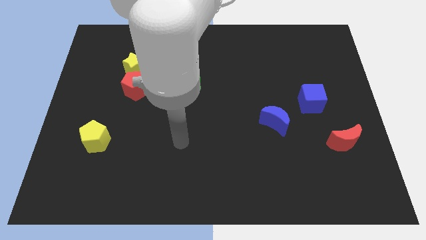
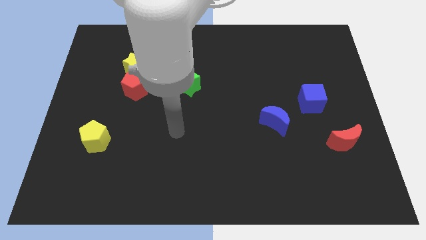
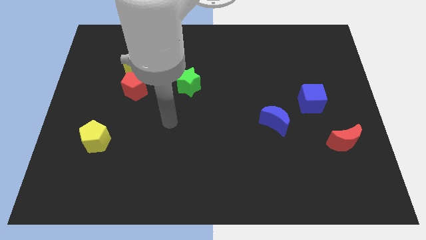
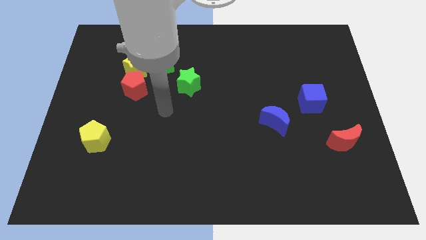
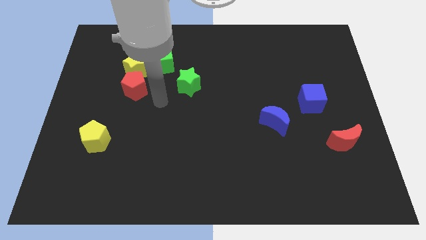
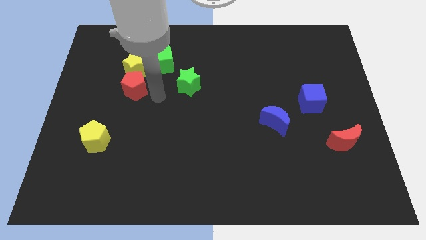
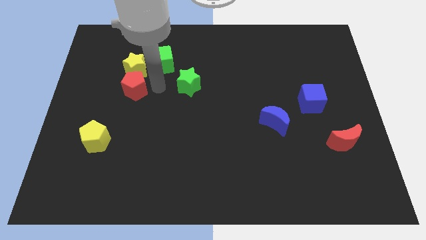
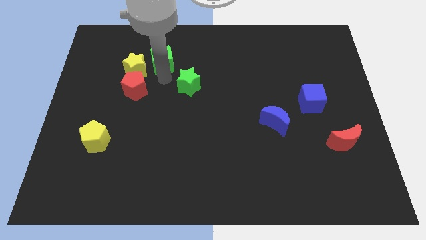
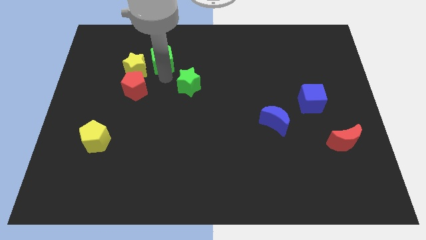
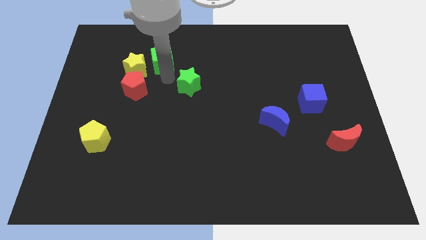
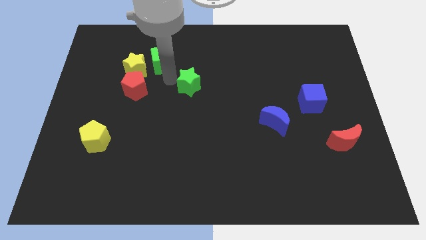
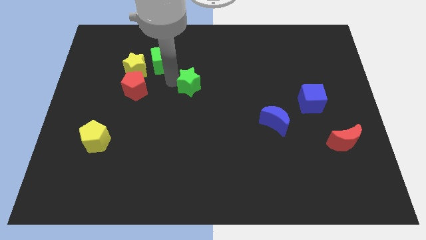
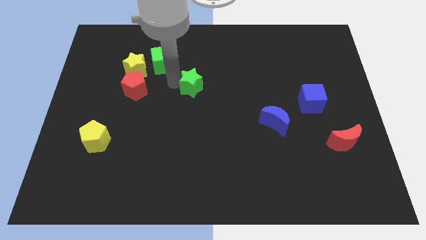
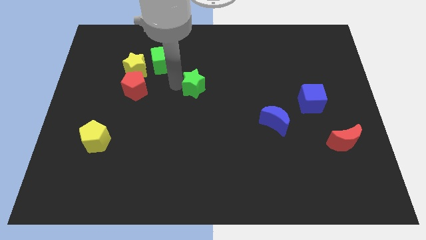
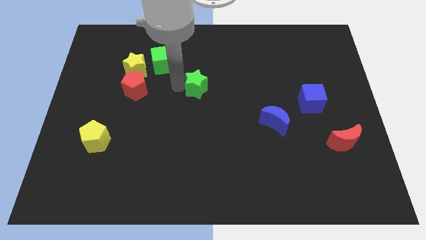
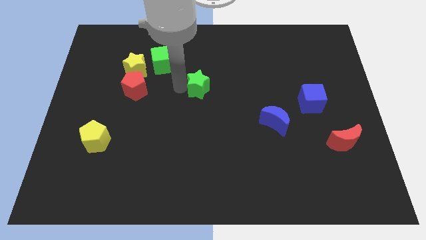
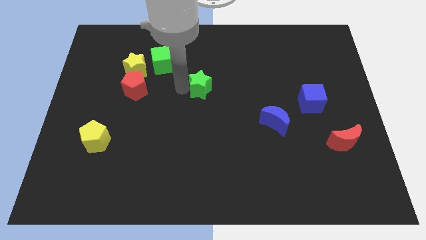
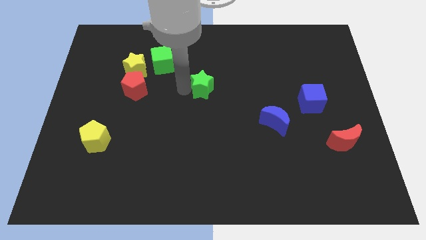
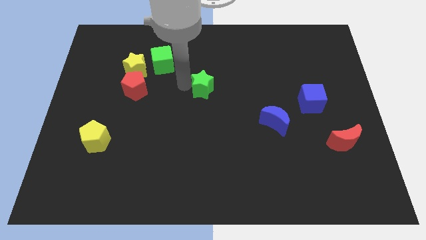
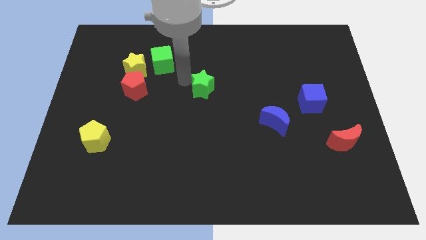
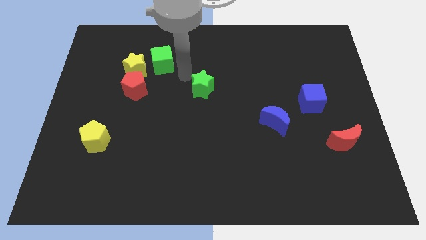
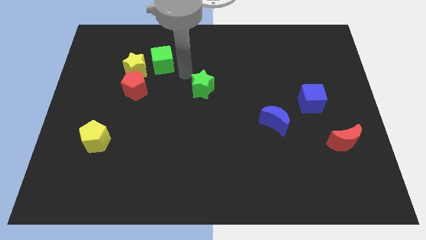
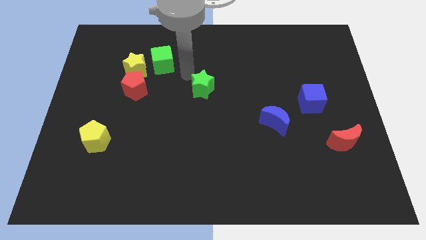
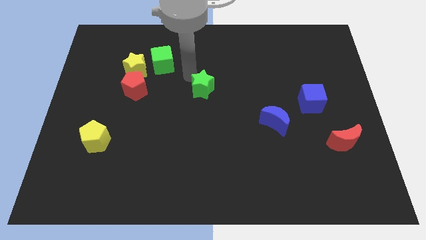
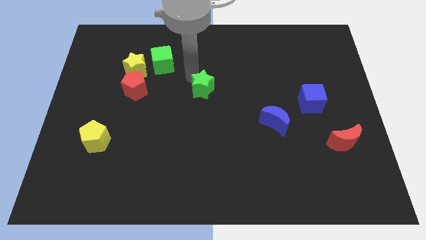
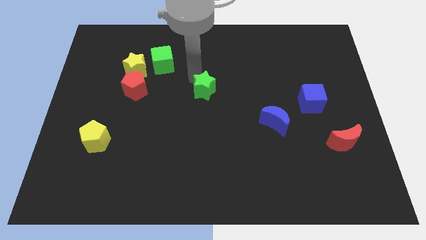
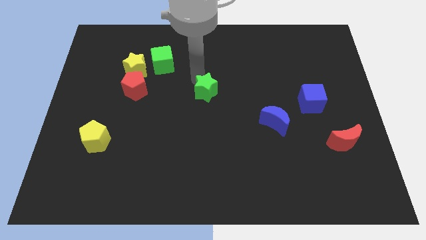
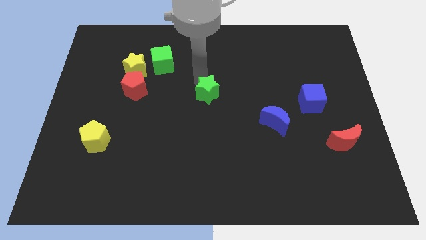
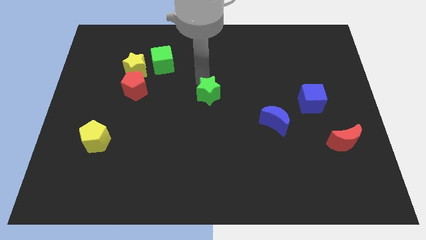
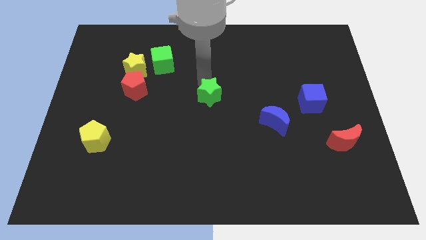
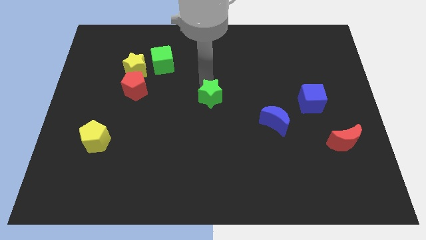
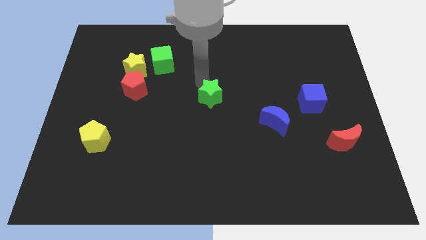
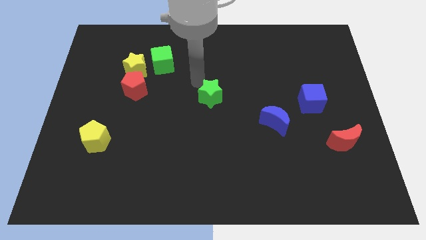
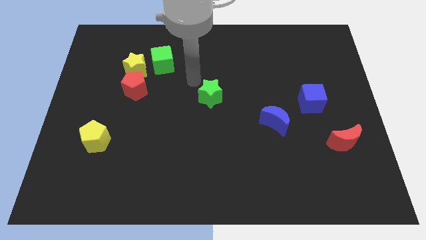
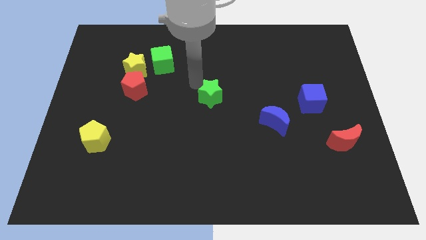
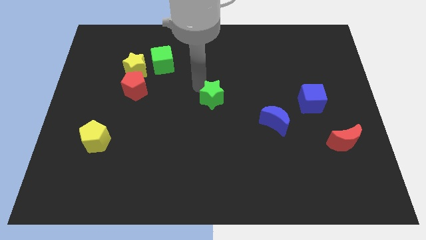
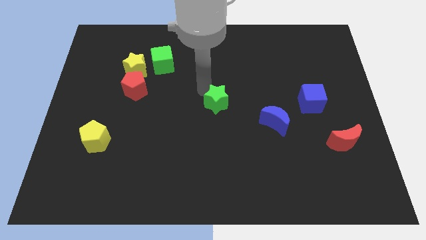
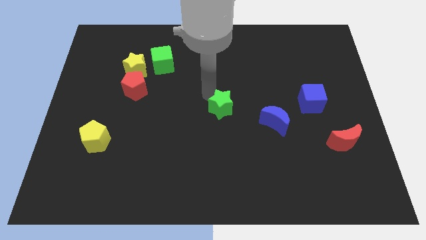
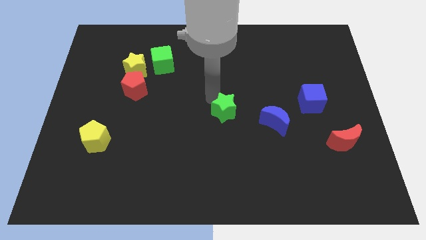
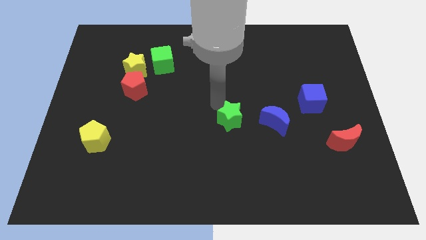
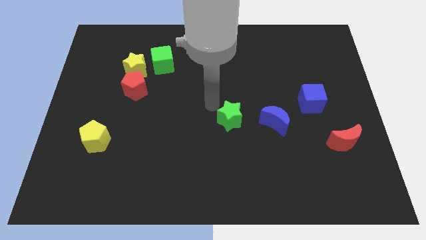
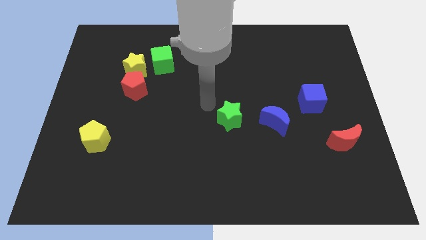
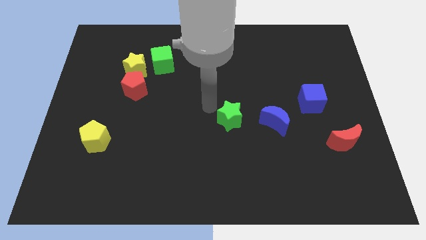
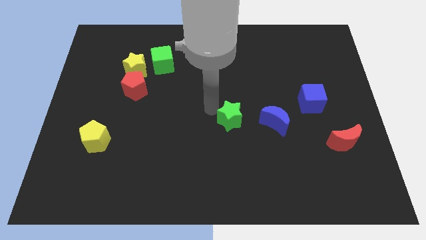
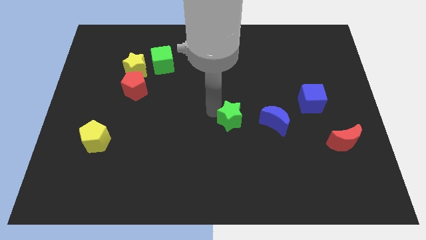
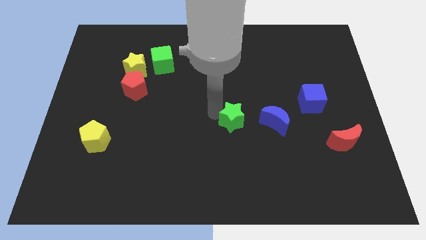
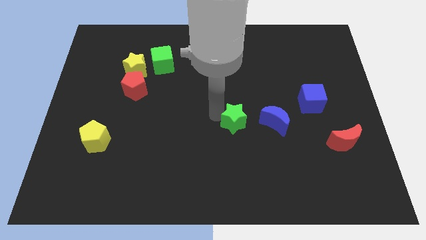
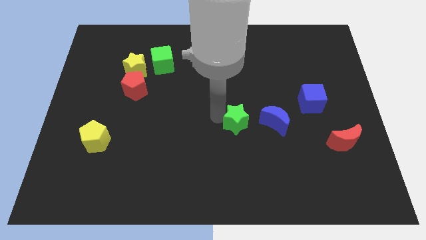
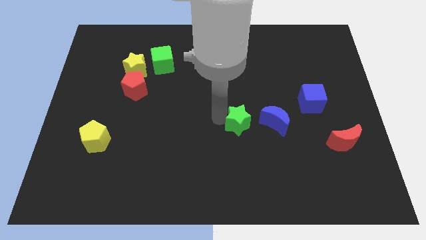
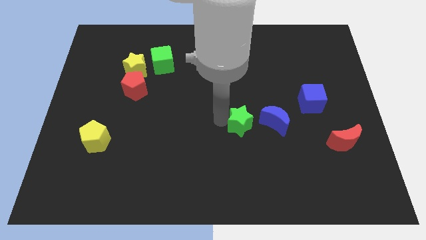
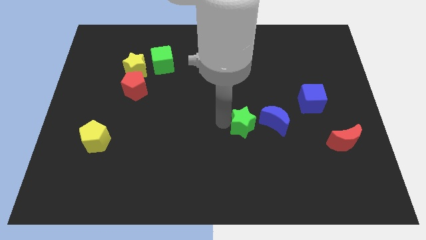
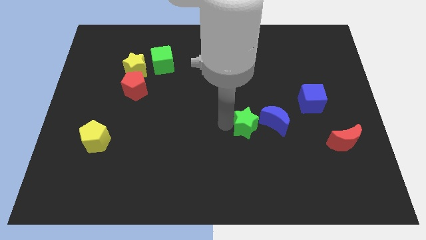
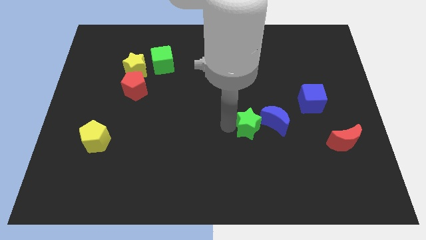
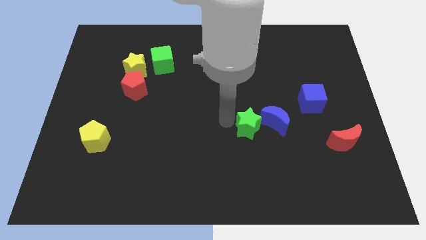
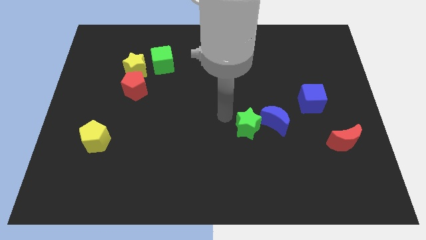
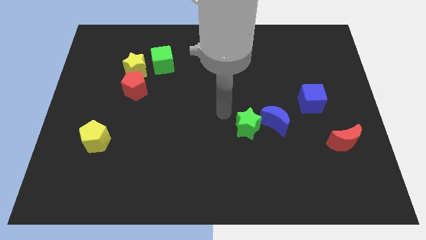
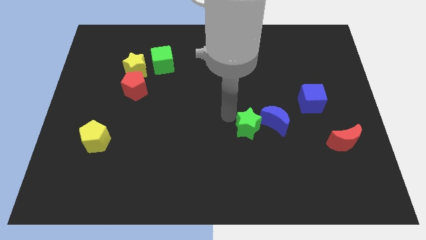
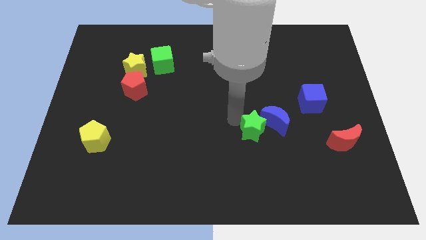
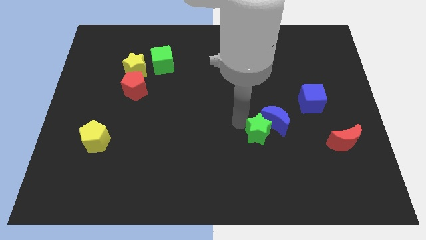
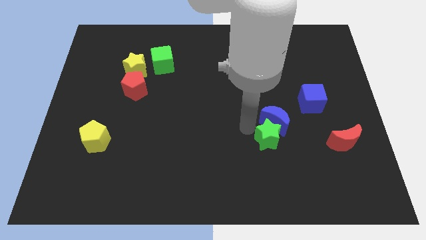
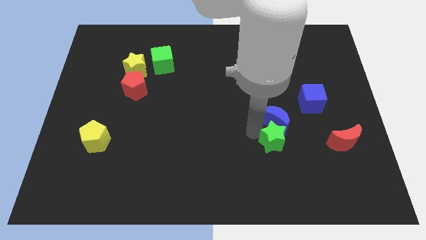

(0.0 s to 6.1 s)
push the green star to the left of the red moon

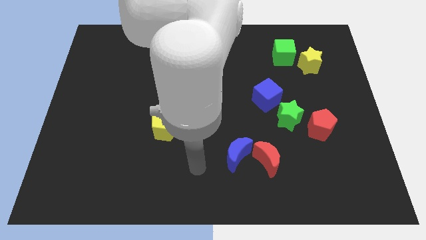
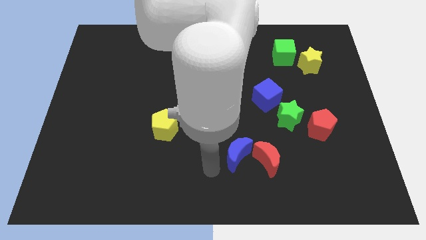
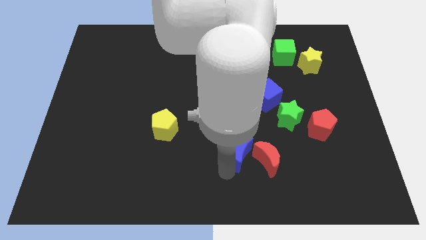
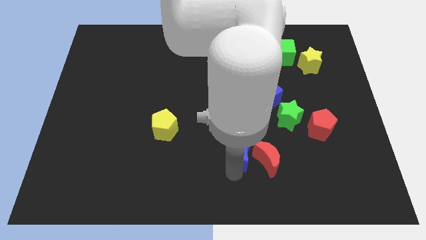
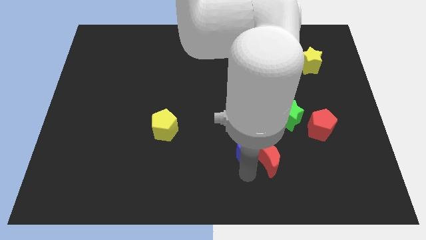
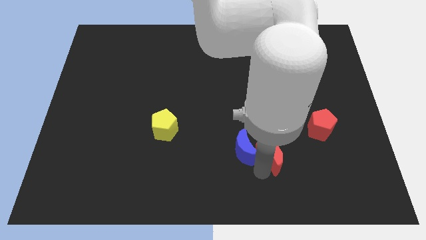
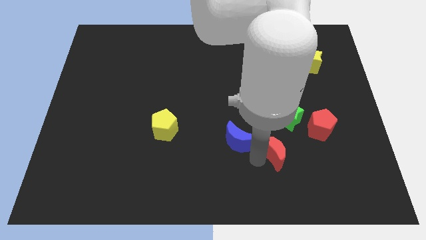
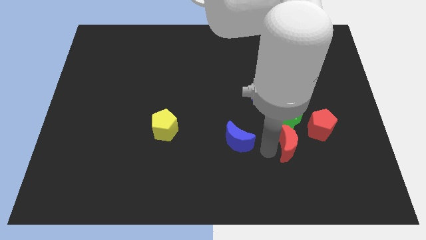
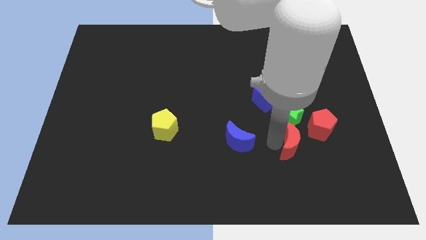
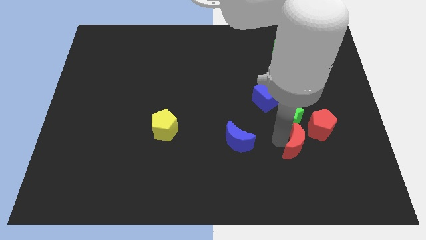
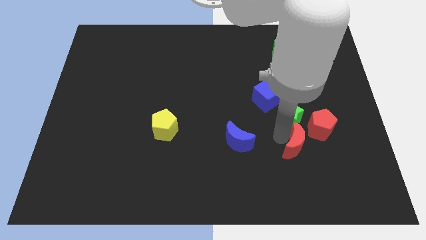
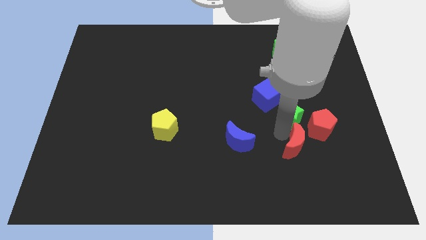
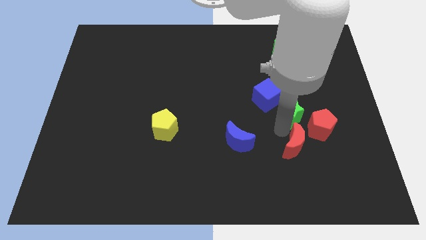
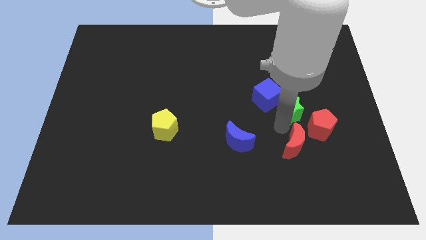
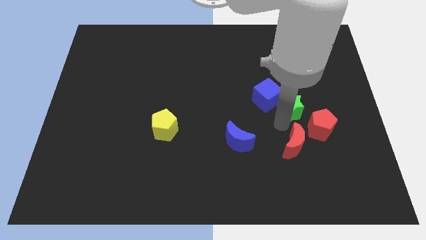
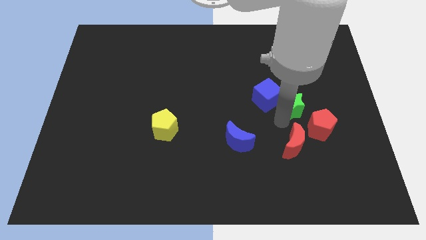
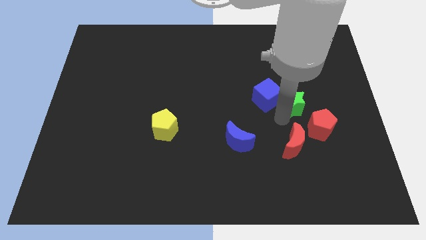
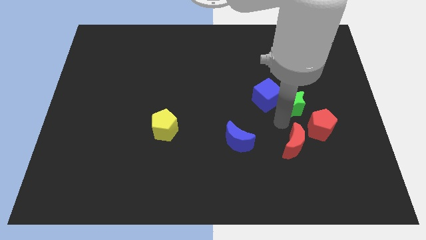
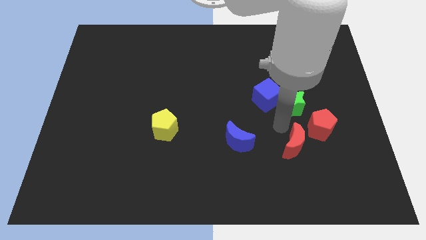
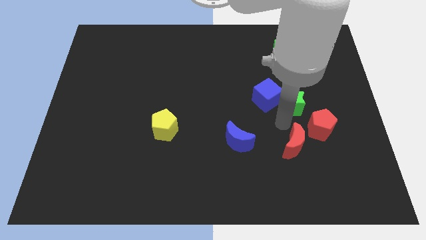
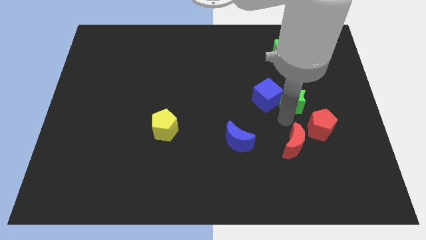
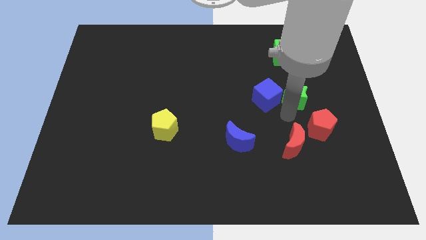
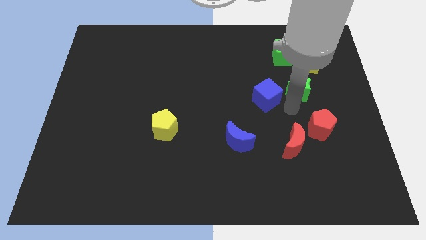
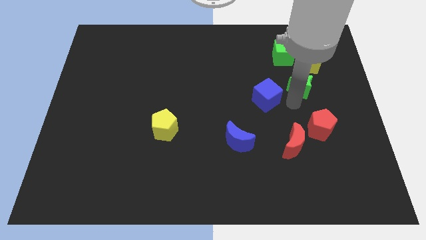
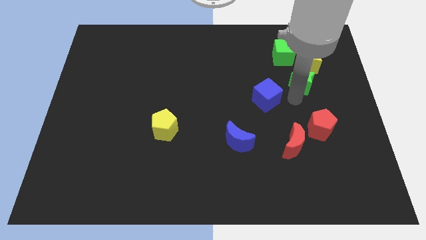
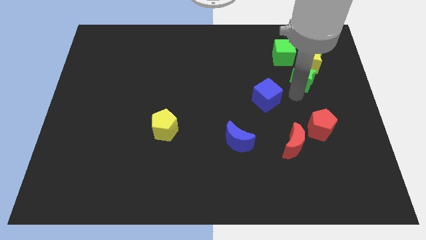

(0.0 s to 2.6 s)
move the green star to the bottom right of the green cube
